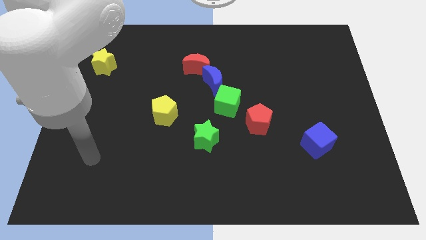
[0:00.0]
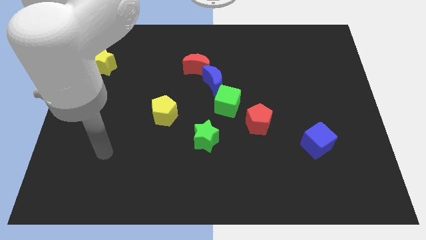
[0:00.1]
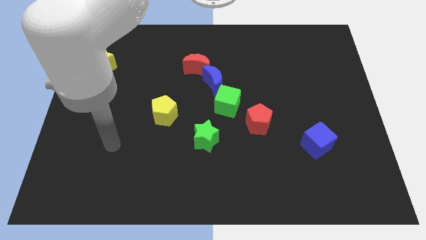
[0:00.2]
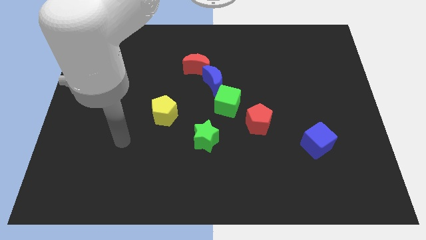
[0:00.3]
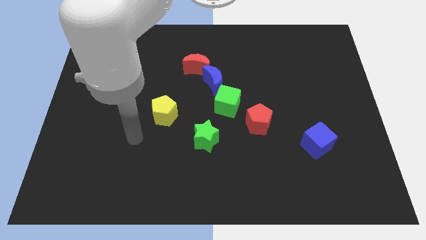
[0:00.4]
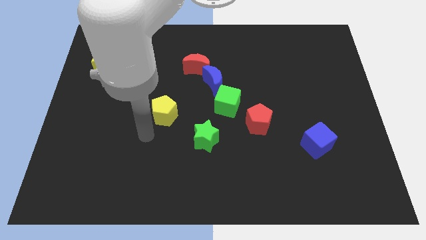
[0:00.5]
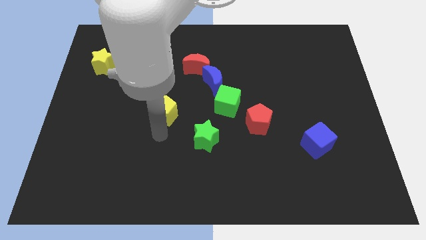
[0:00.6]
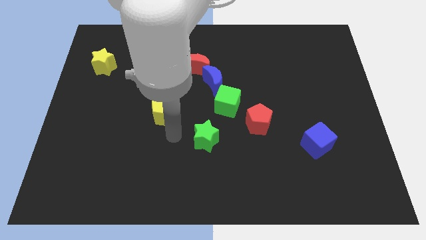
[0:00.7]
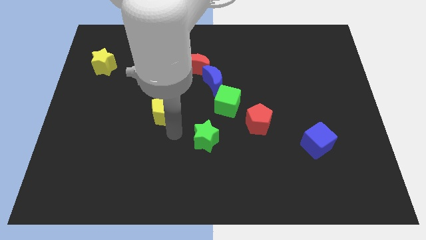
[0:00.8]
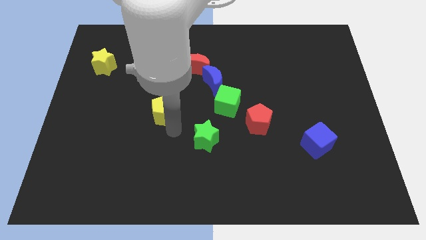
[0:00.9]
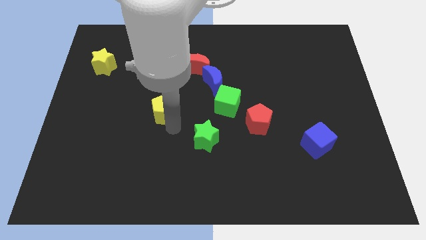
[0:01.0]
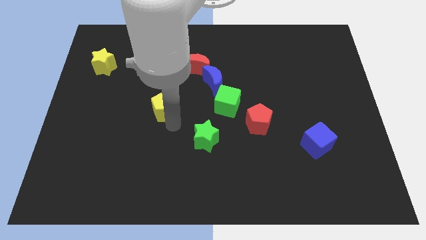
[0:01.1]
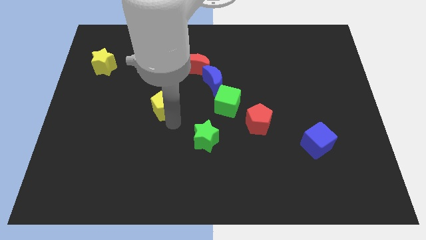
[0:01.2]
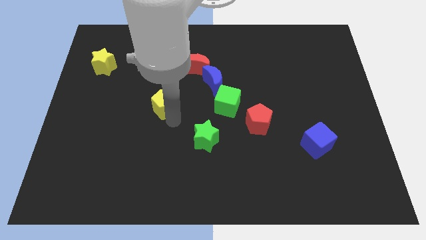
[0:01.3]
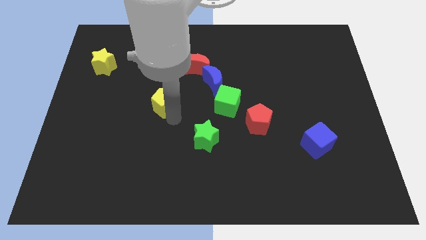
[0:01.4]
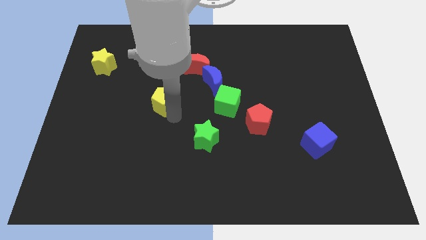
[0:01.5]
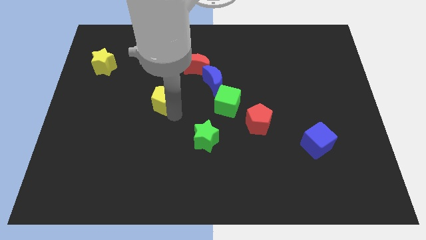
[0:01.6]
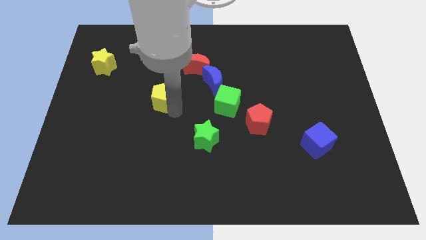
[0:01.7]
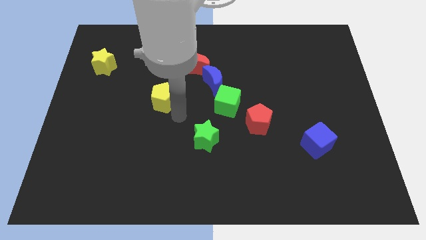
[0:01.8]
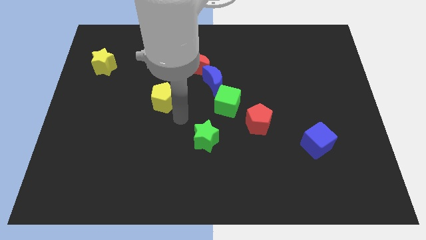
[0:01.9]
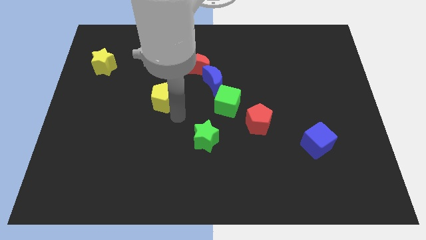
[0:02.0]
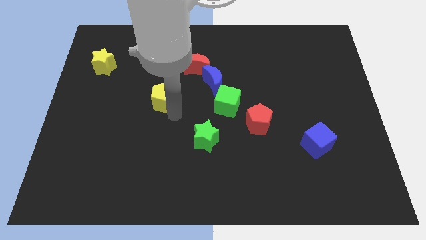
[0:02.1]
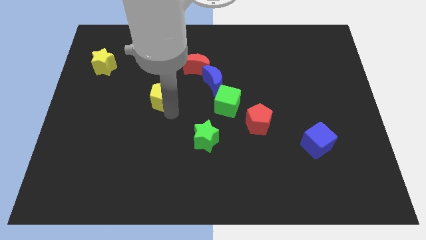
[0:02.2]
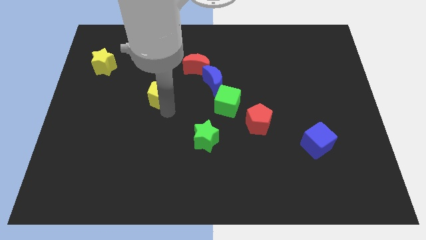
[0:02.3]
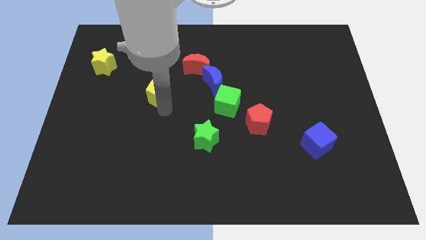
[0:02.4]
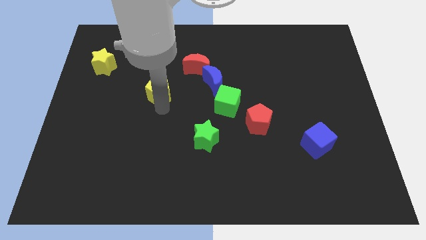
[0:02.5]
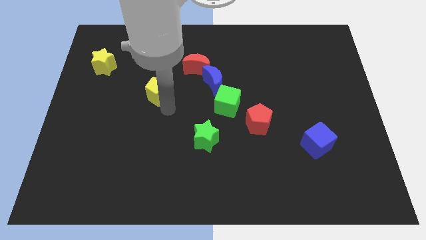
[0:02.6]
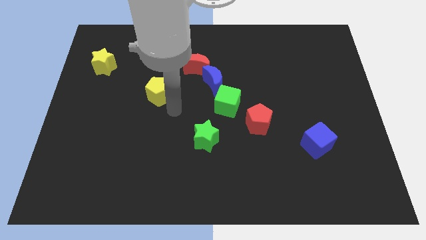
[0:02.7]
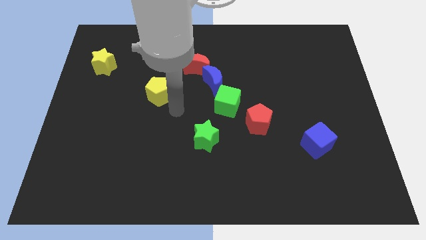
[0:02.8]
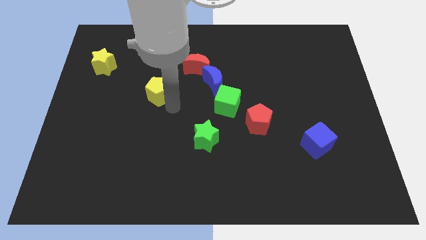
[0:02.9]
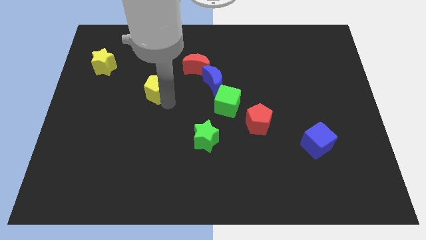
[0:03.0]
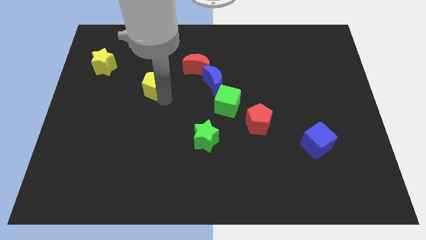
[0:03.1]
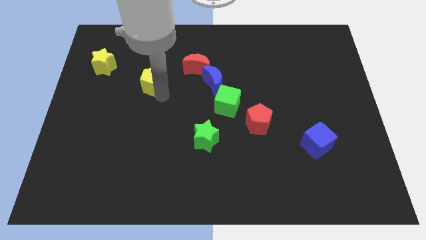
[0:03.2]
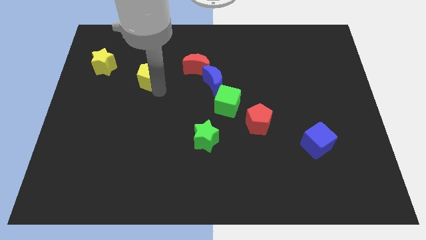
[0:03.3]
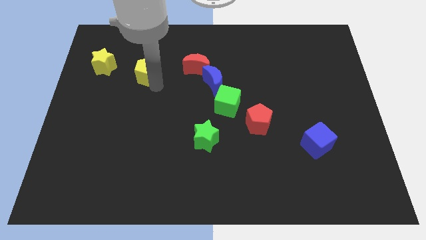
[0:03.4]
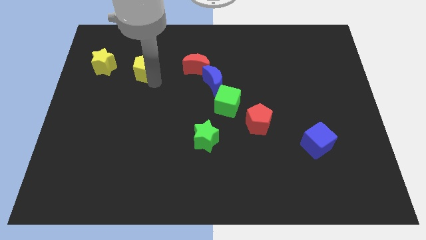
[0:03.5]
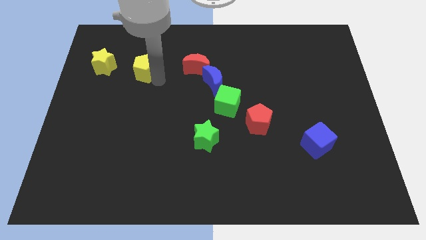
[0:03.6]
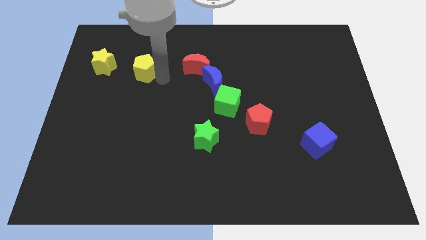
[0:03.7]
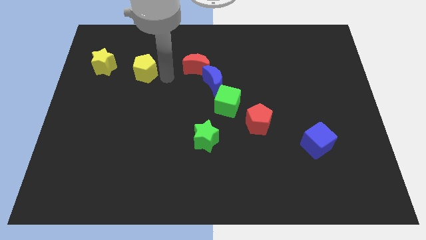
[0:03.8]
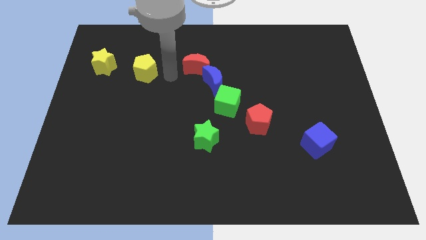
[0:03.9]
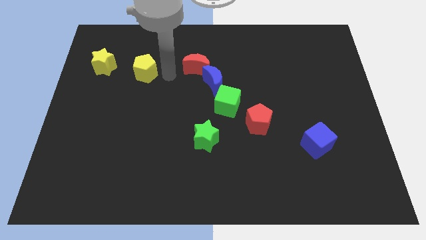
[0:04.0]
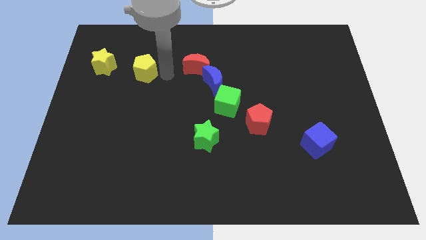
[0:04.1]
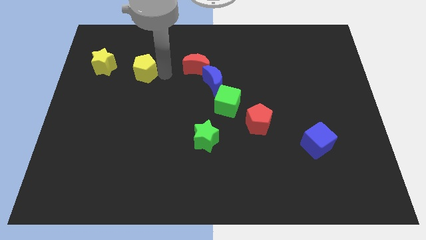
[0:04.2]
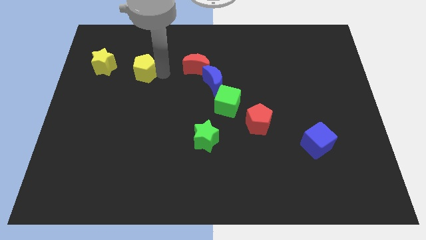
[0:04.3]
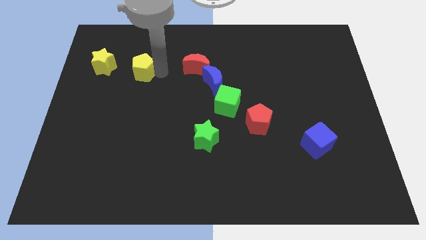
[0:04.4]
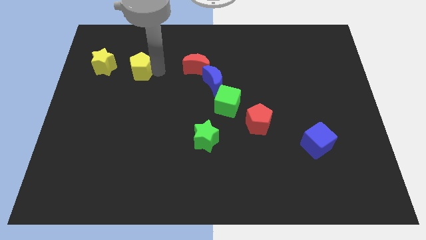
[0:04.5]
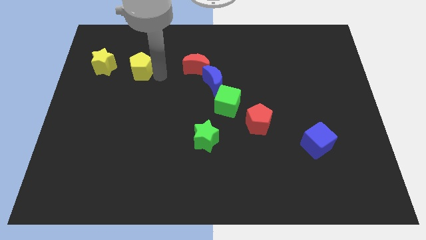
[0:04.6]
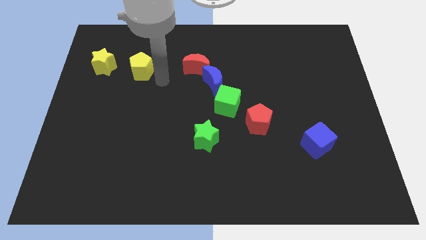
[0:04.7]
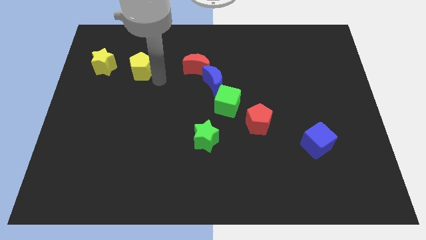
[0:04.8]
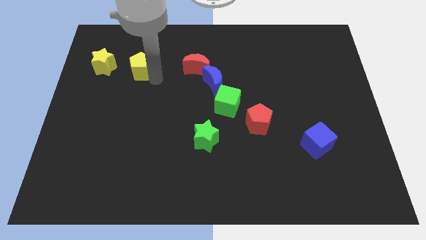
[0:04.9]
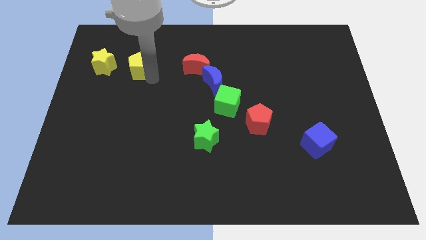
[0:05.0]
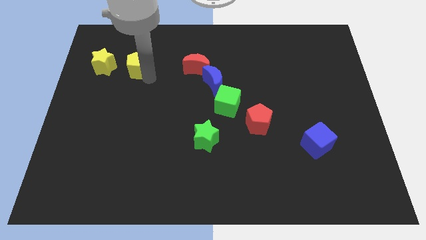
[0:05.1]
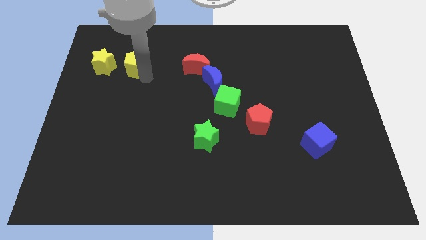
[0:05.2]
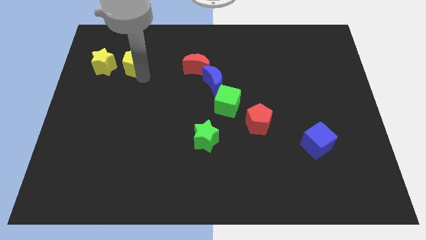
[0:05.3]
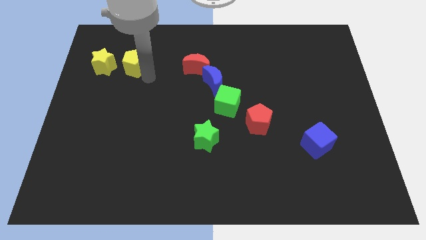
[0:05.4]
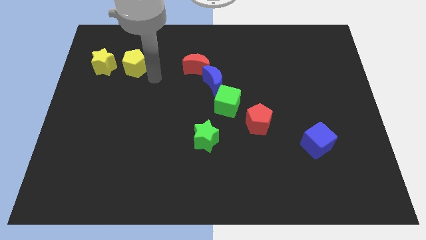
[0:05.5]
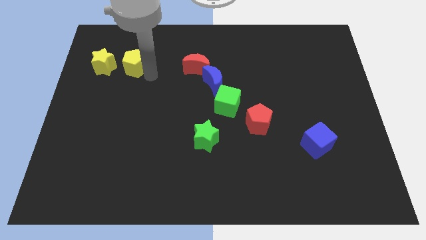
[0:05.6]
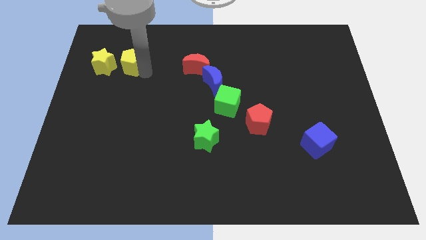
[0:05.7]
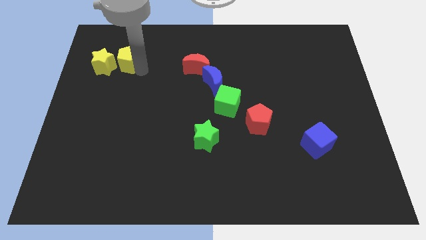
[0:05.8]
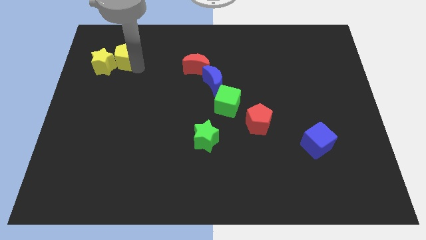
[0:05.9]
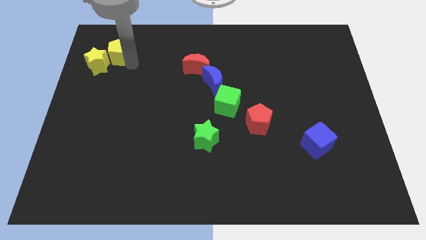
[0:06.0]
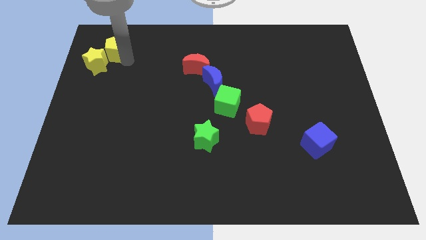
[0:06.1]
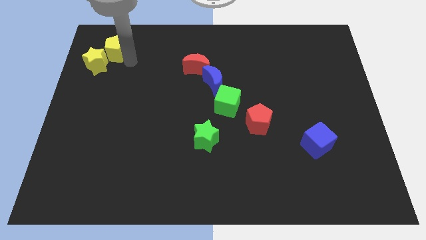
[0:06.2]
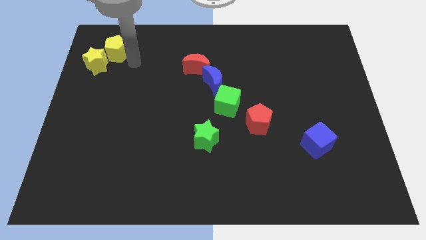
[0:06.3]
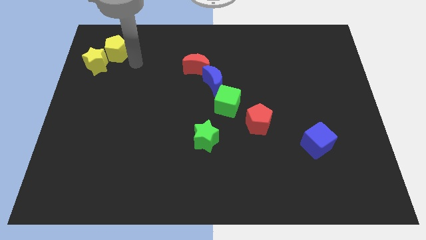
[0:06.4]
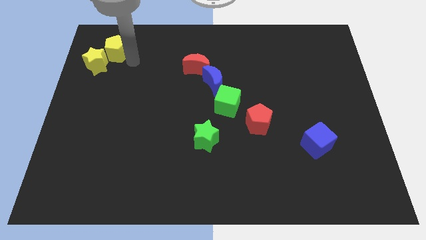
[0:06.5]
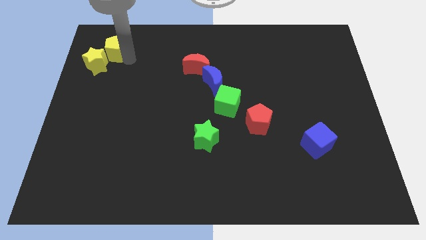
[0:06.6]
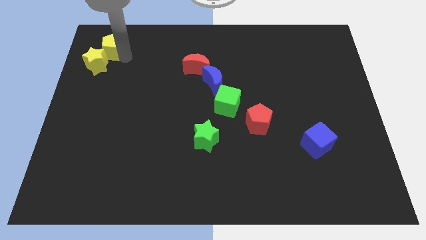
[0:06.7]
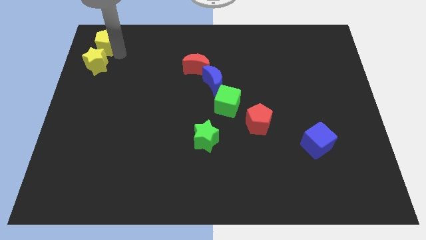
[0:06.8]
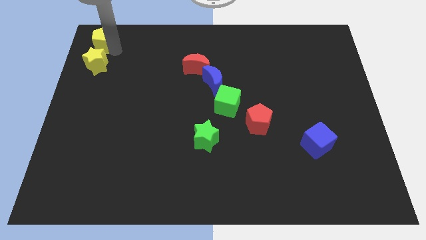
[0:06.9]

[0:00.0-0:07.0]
slide the yellow pentagon to the top left corner
